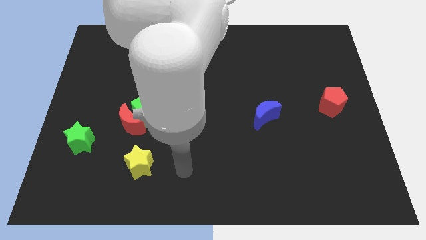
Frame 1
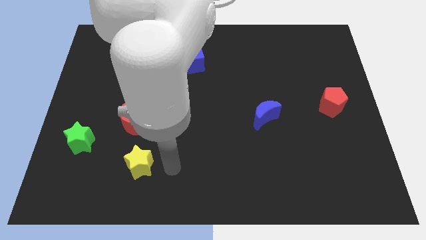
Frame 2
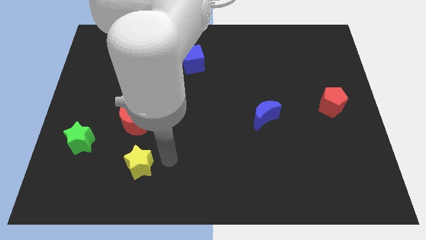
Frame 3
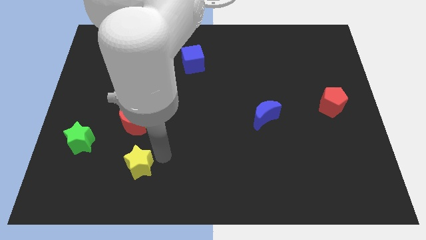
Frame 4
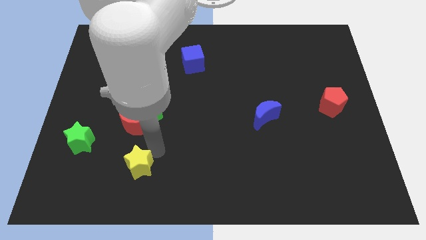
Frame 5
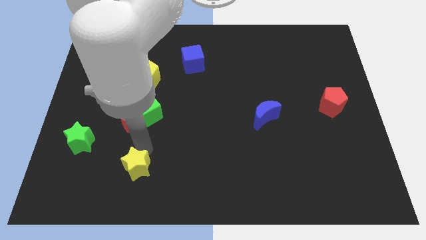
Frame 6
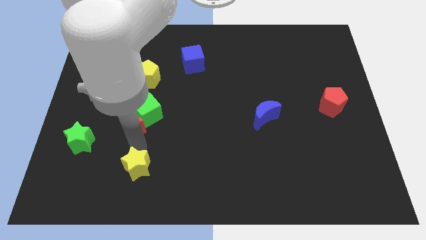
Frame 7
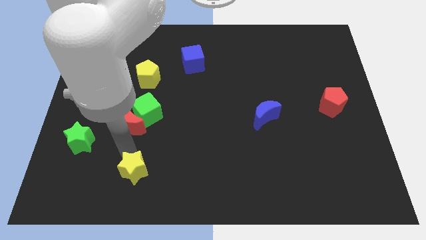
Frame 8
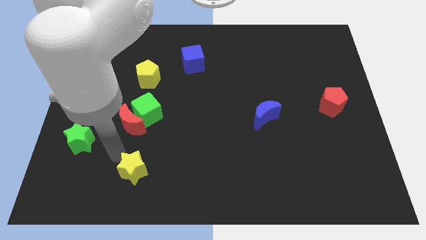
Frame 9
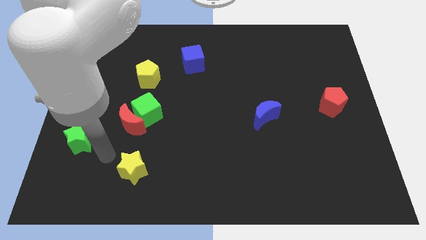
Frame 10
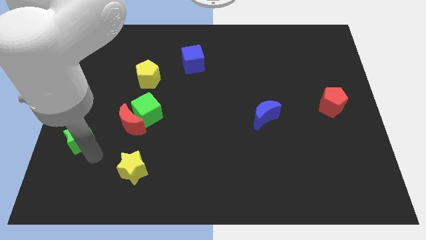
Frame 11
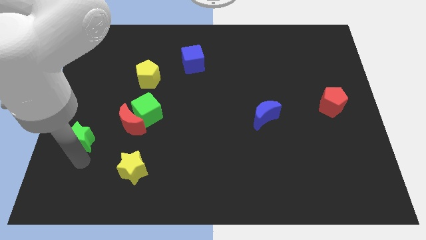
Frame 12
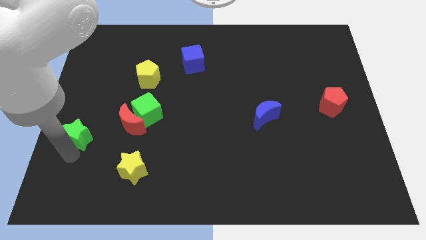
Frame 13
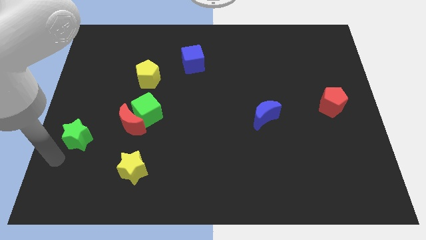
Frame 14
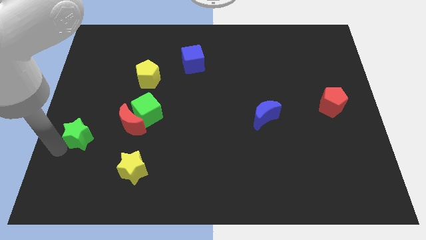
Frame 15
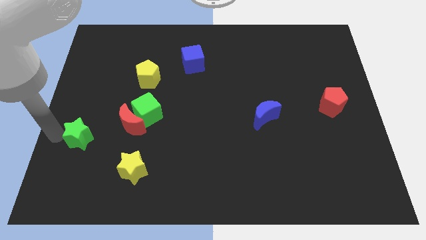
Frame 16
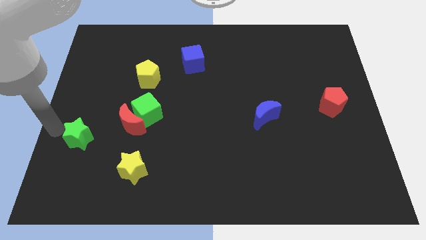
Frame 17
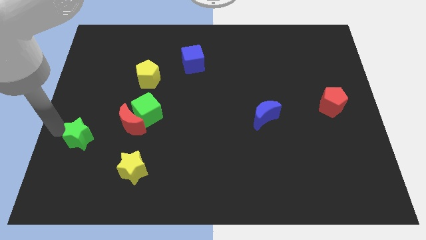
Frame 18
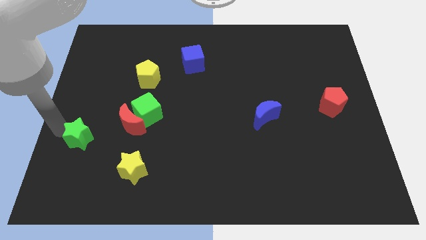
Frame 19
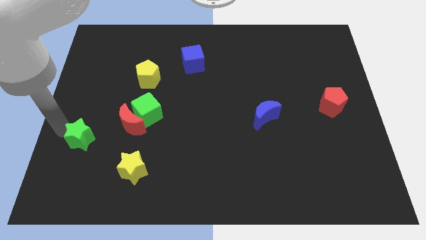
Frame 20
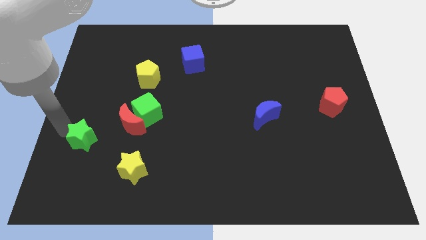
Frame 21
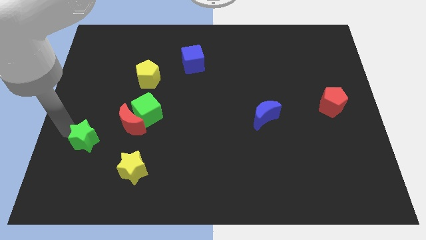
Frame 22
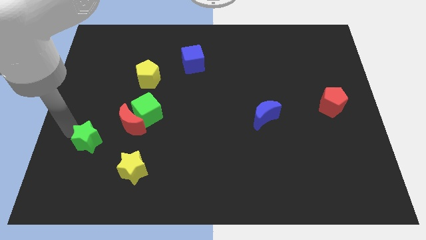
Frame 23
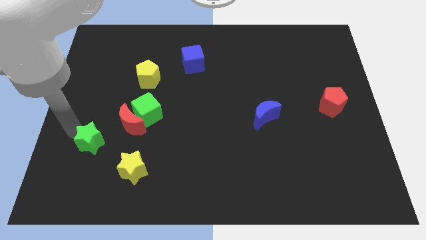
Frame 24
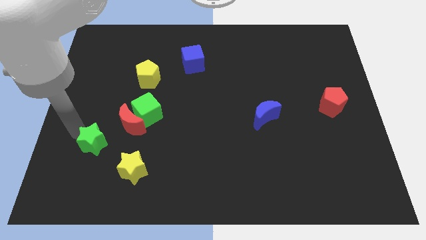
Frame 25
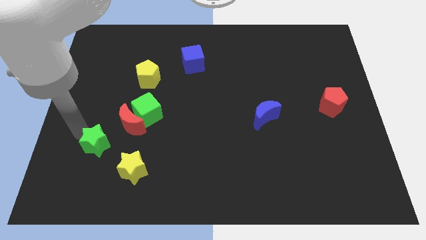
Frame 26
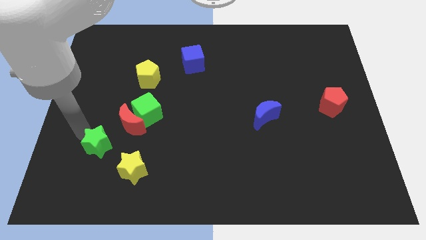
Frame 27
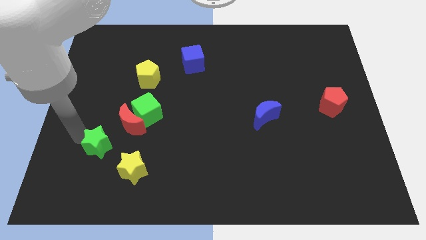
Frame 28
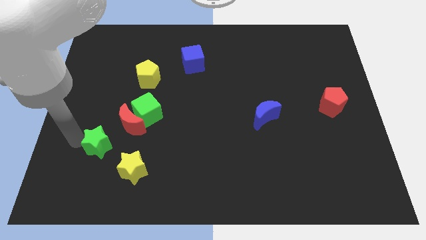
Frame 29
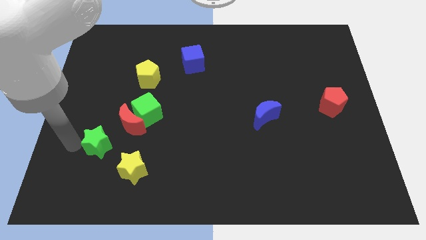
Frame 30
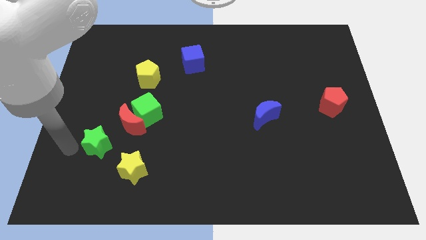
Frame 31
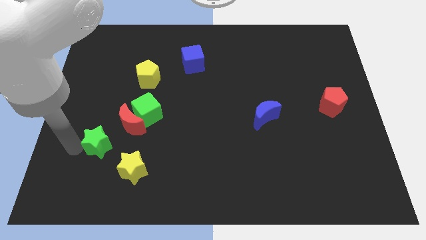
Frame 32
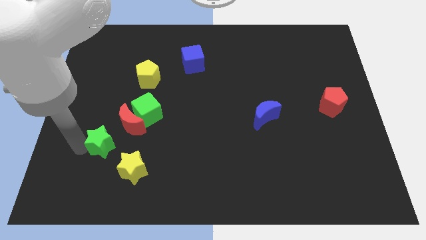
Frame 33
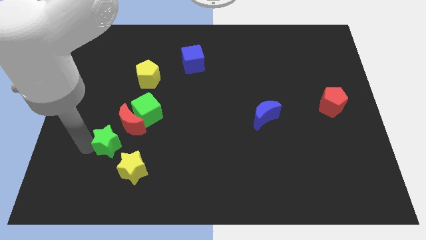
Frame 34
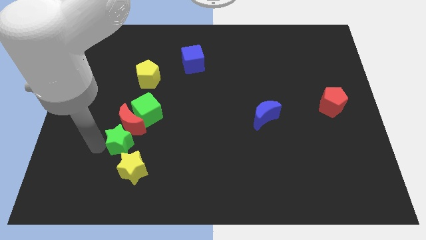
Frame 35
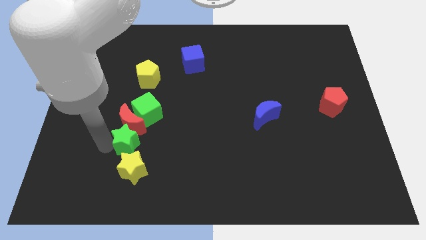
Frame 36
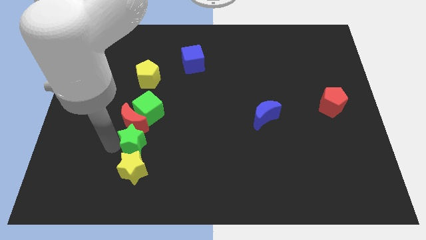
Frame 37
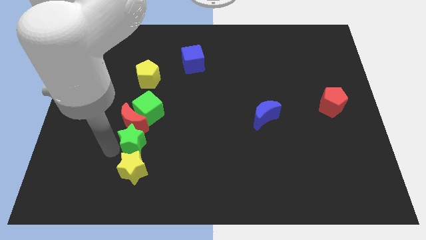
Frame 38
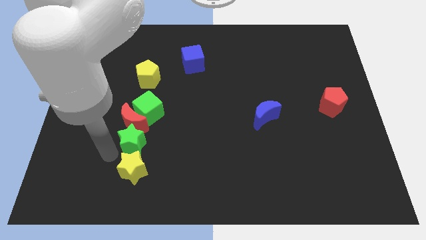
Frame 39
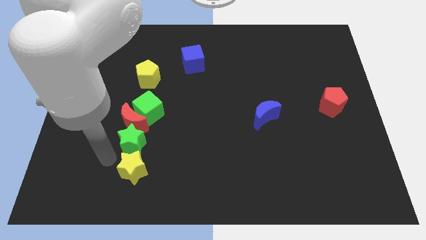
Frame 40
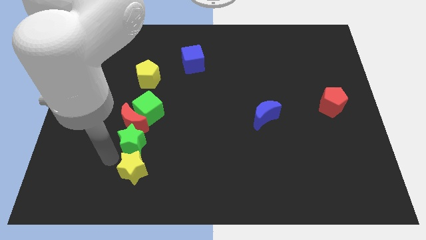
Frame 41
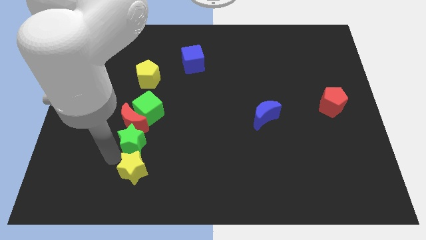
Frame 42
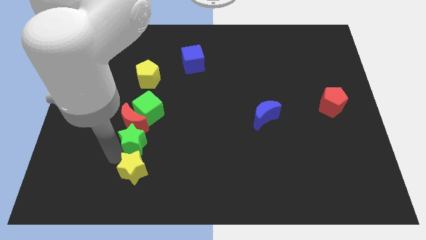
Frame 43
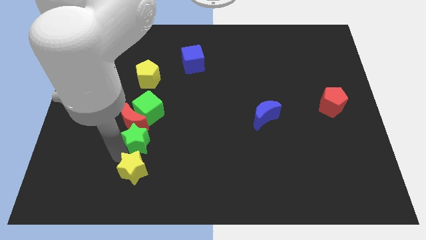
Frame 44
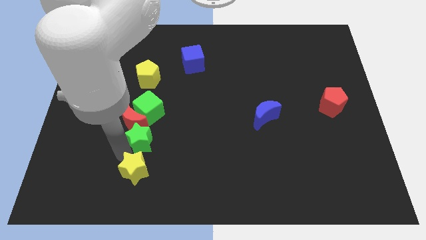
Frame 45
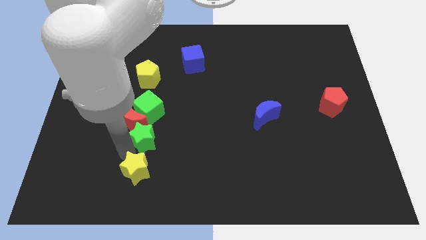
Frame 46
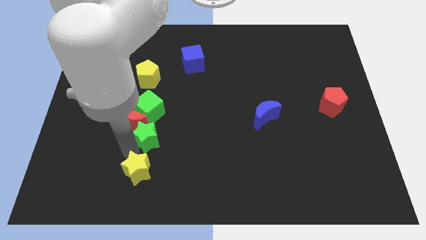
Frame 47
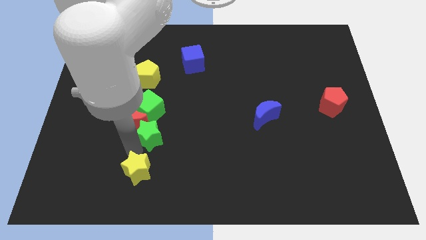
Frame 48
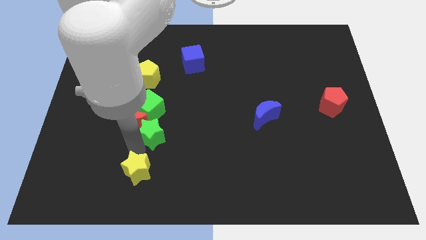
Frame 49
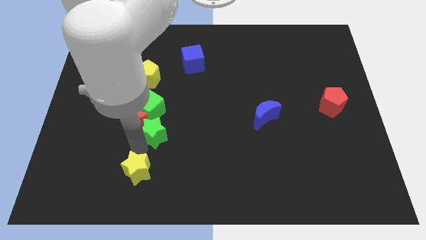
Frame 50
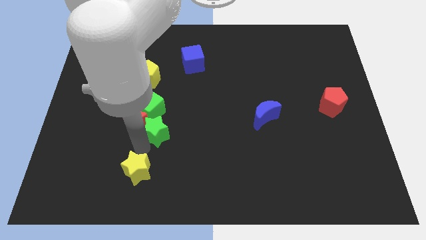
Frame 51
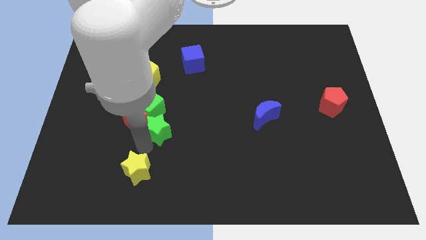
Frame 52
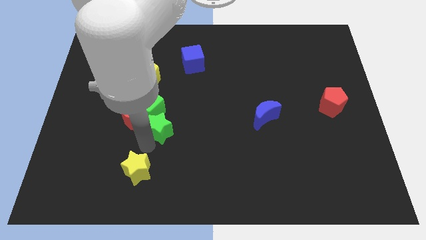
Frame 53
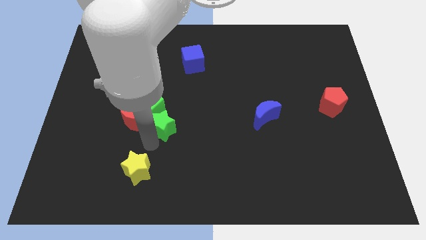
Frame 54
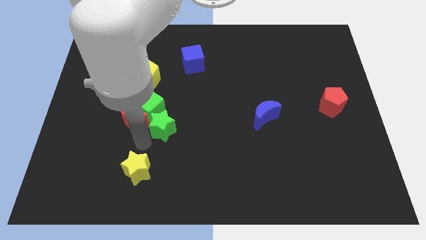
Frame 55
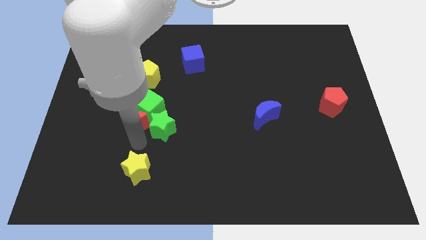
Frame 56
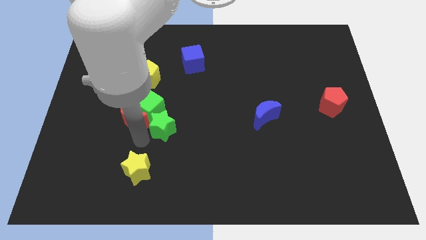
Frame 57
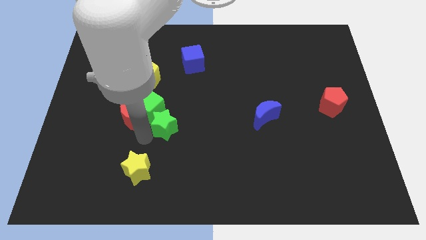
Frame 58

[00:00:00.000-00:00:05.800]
push the green star to the right of the green cube
